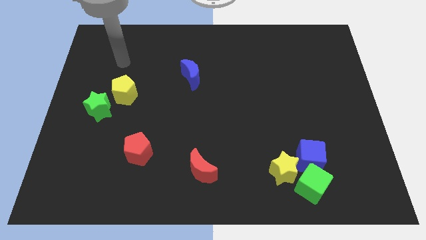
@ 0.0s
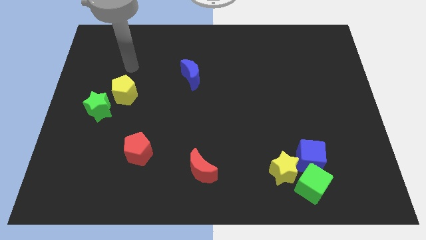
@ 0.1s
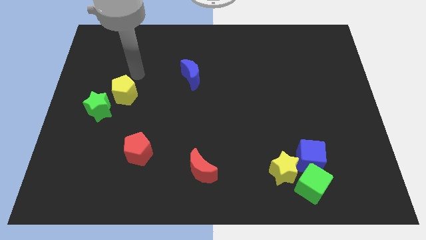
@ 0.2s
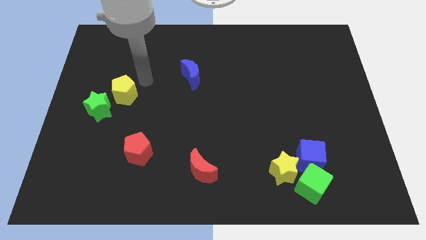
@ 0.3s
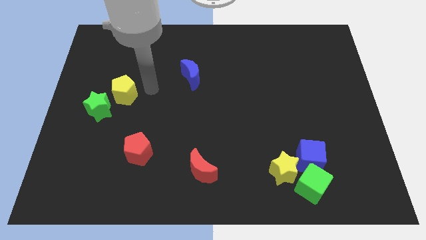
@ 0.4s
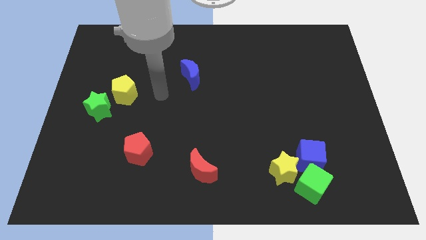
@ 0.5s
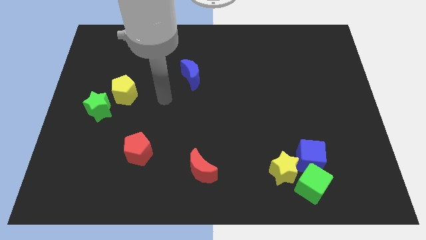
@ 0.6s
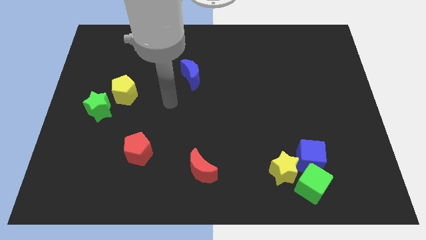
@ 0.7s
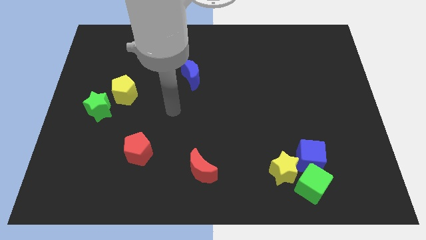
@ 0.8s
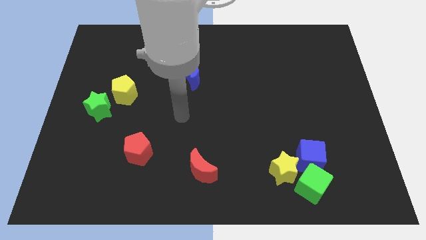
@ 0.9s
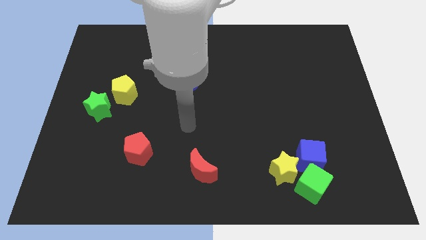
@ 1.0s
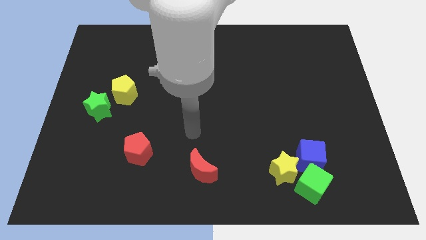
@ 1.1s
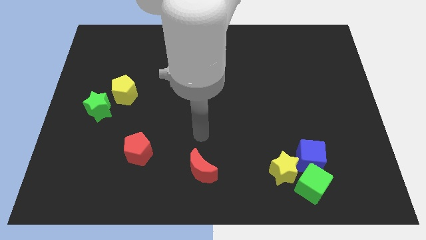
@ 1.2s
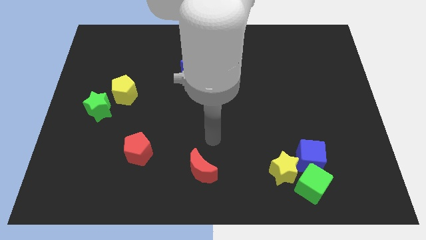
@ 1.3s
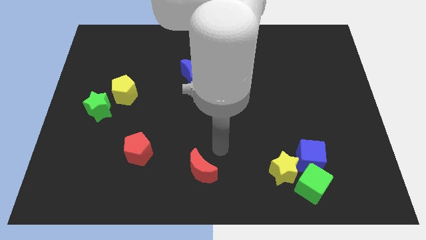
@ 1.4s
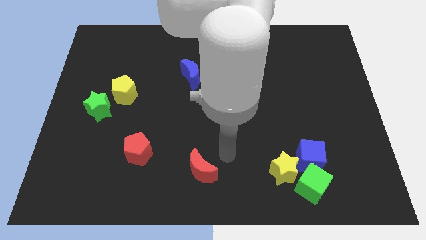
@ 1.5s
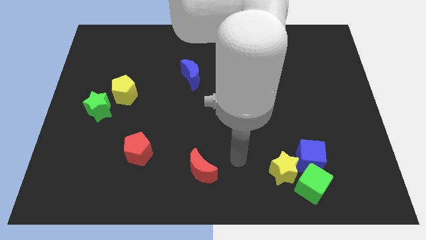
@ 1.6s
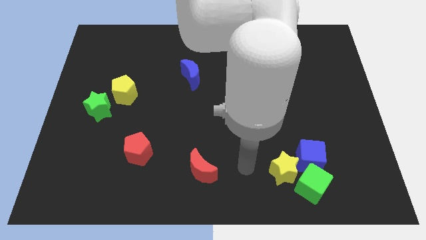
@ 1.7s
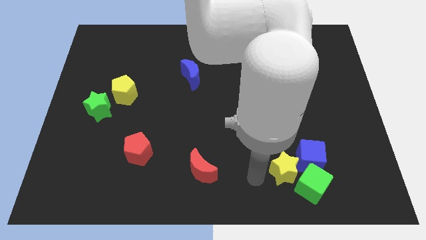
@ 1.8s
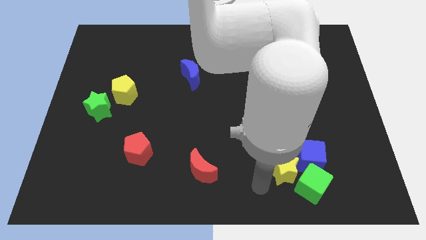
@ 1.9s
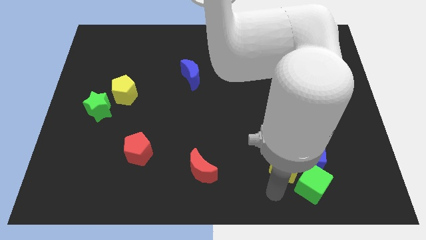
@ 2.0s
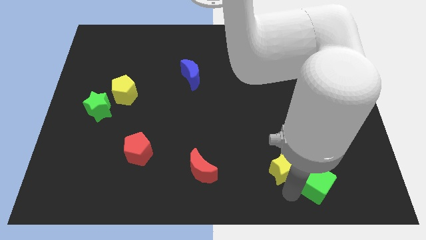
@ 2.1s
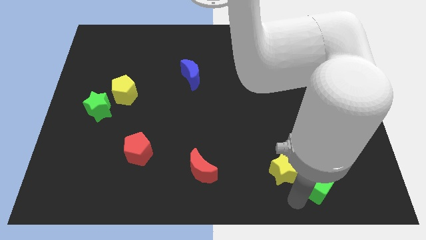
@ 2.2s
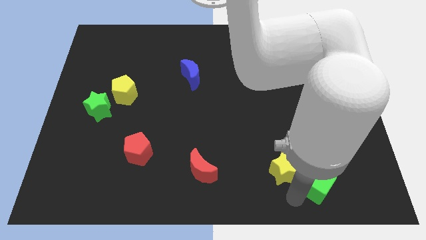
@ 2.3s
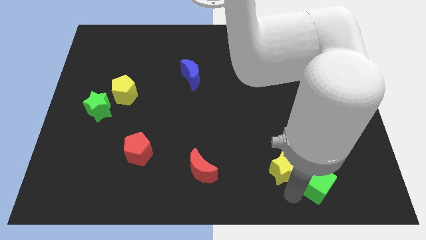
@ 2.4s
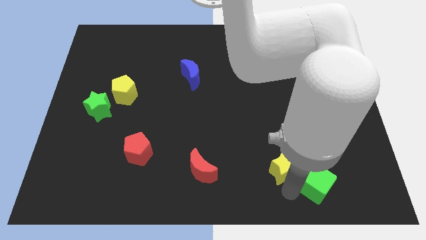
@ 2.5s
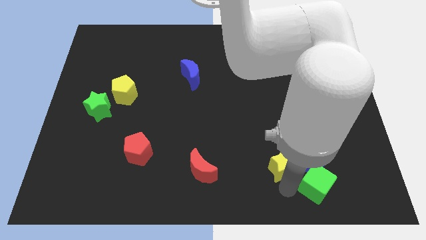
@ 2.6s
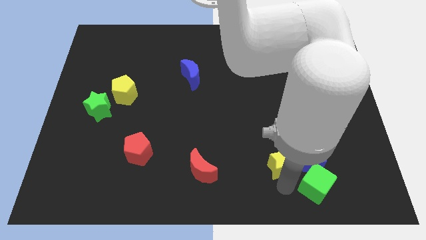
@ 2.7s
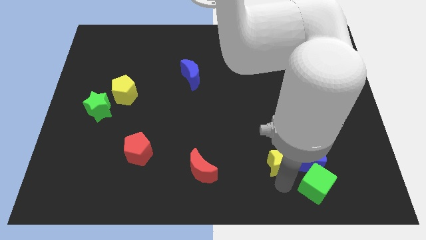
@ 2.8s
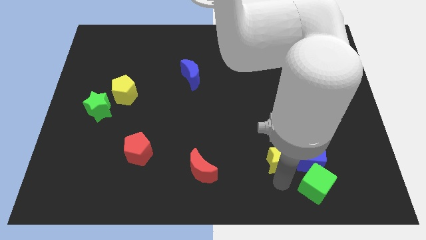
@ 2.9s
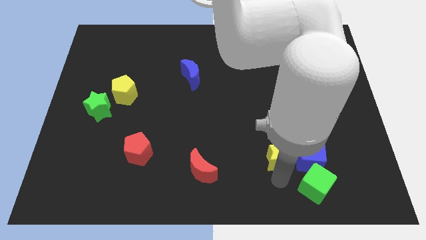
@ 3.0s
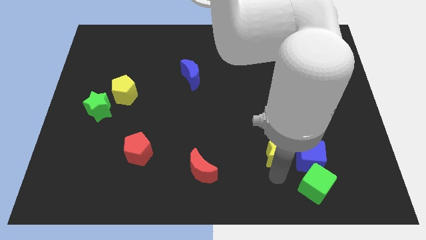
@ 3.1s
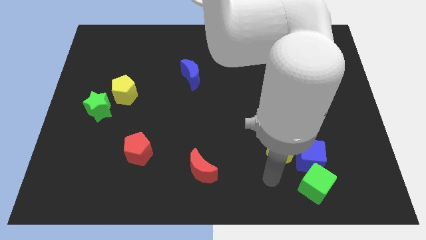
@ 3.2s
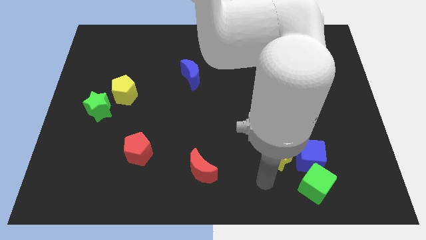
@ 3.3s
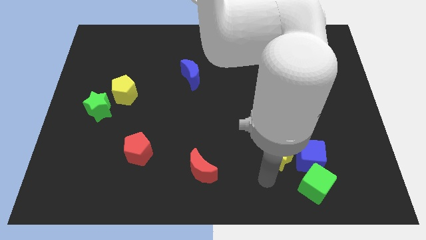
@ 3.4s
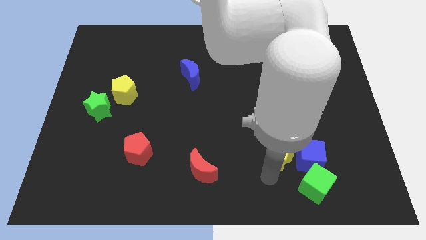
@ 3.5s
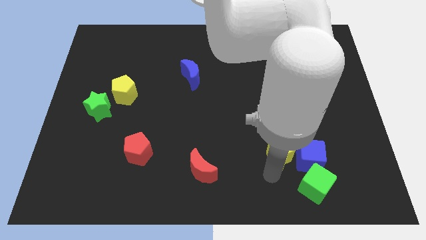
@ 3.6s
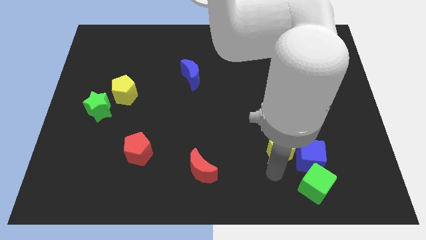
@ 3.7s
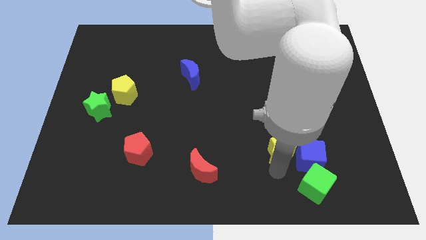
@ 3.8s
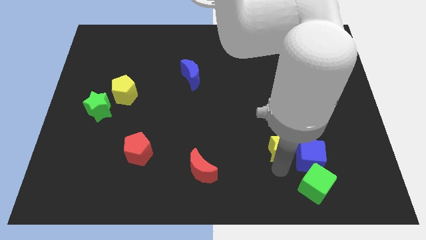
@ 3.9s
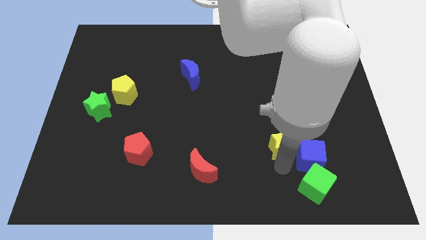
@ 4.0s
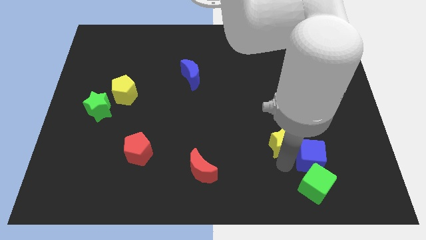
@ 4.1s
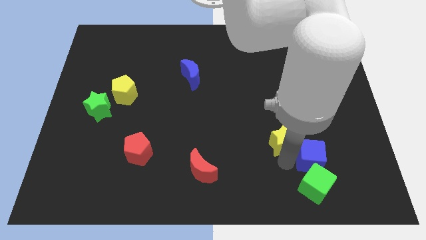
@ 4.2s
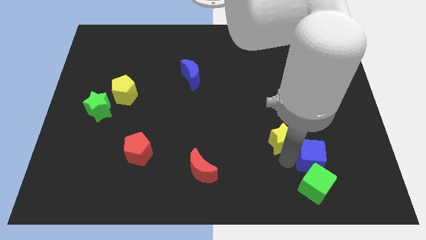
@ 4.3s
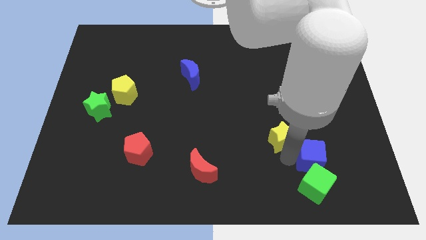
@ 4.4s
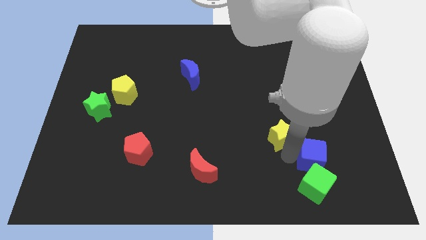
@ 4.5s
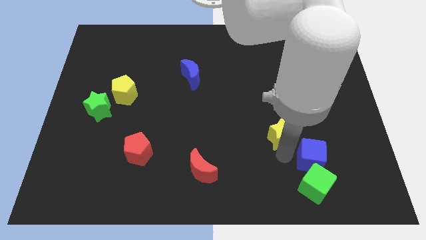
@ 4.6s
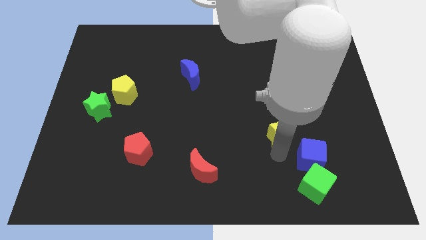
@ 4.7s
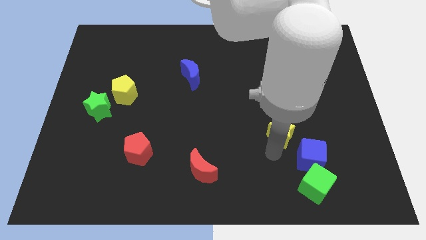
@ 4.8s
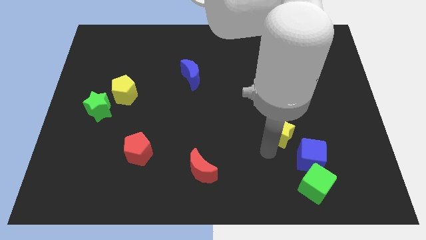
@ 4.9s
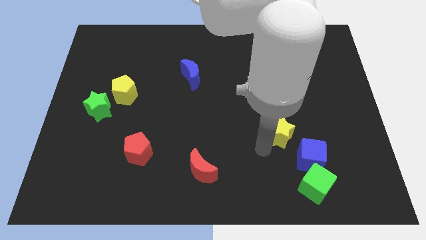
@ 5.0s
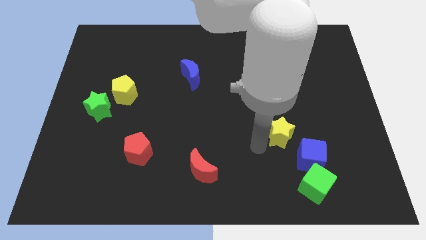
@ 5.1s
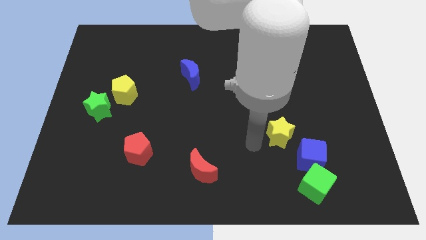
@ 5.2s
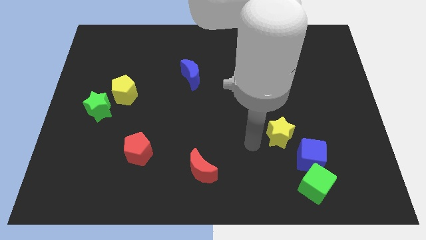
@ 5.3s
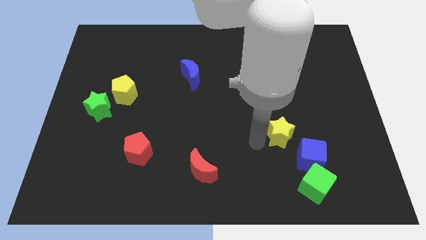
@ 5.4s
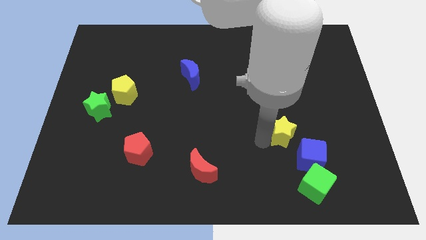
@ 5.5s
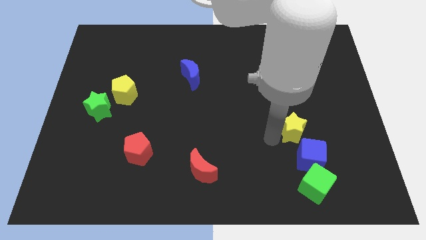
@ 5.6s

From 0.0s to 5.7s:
slightly move the yellow star diagonally up and to the right

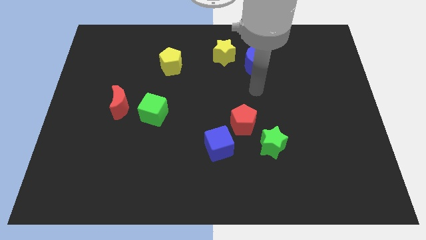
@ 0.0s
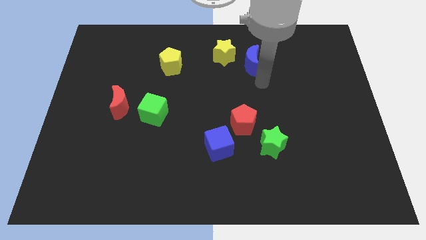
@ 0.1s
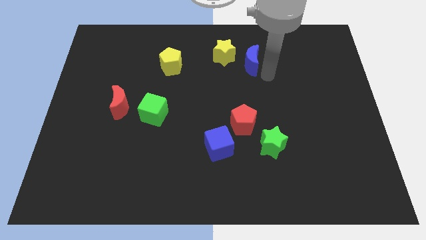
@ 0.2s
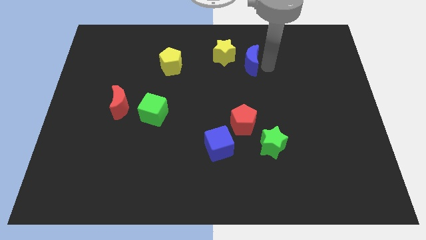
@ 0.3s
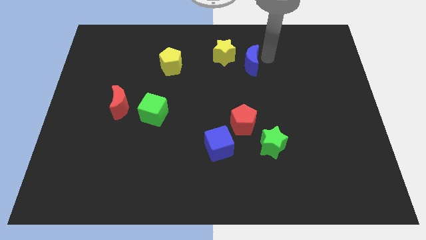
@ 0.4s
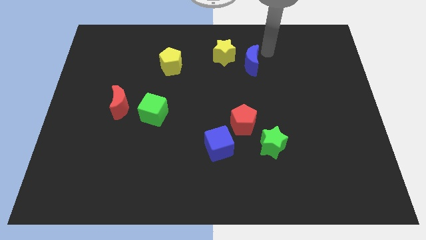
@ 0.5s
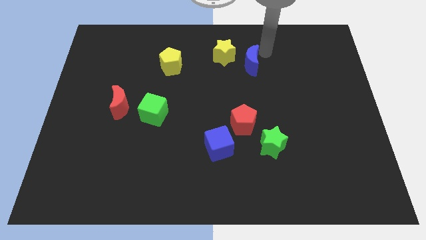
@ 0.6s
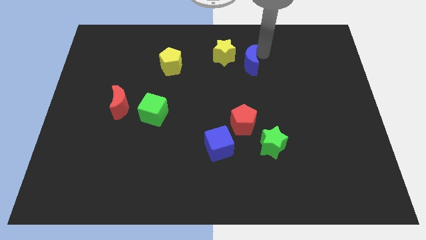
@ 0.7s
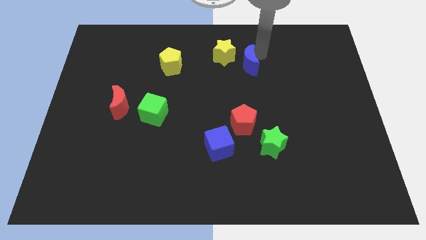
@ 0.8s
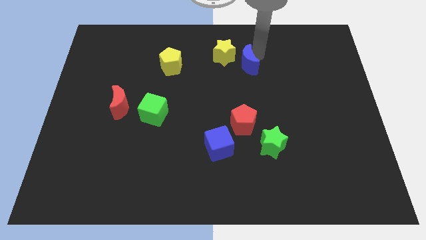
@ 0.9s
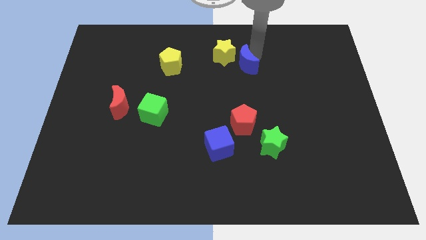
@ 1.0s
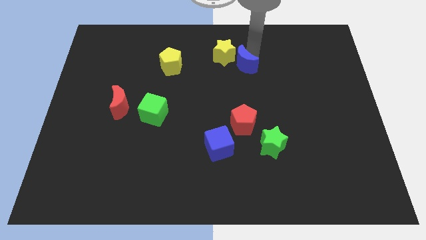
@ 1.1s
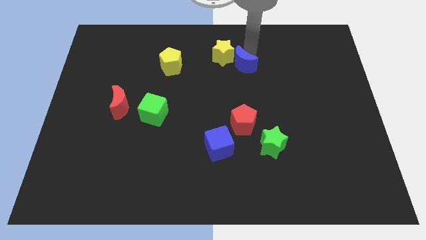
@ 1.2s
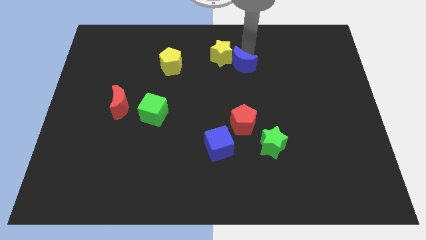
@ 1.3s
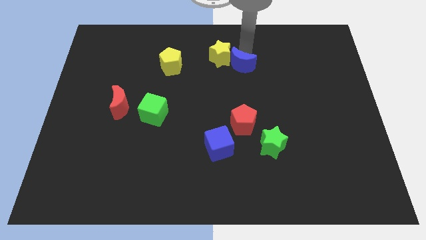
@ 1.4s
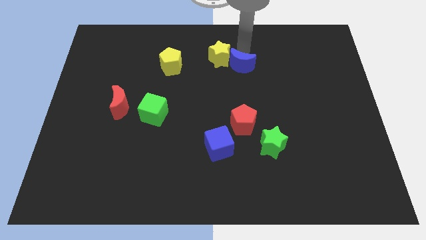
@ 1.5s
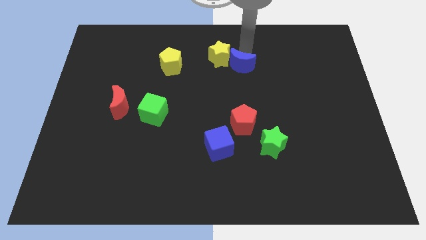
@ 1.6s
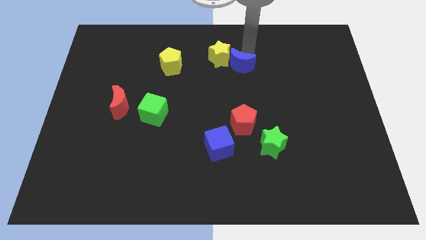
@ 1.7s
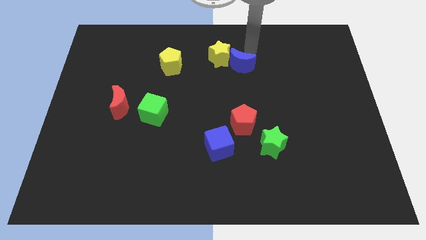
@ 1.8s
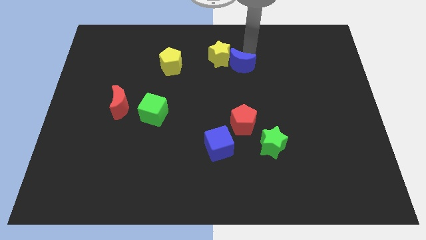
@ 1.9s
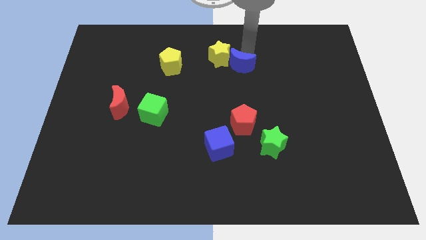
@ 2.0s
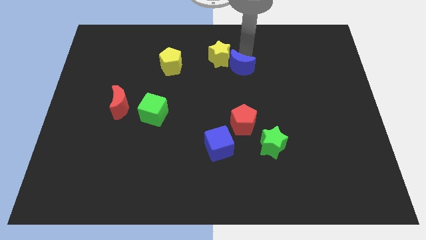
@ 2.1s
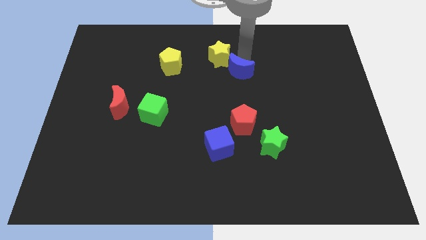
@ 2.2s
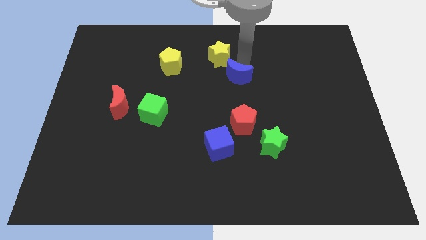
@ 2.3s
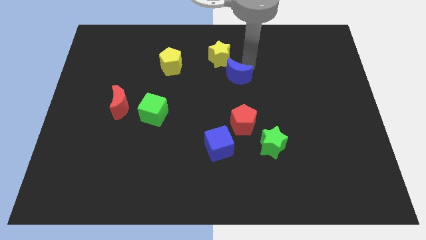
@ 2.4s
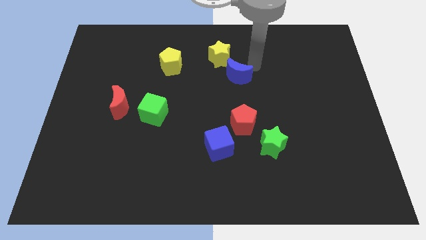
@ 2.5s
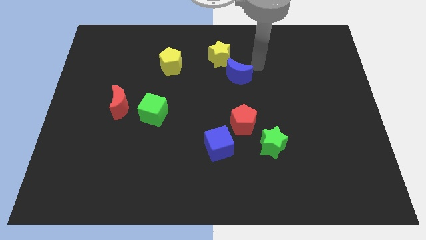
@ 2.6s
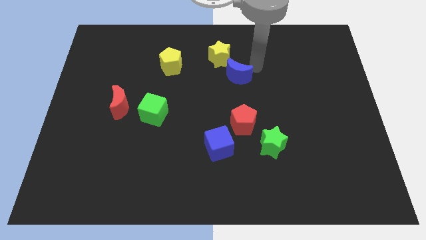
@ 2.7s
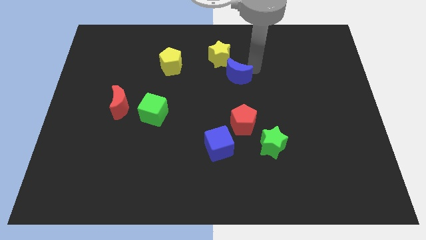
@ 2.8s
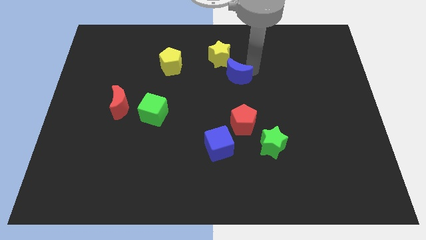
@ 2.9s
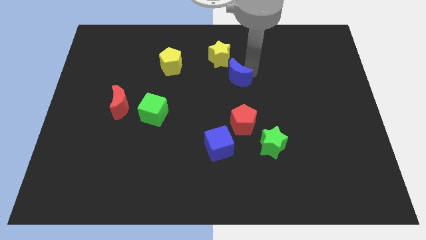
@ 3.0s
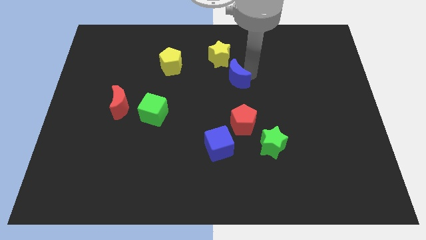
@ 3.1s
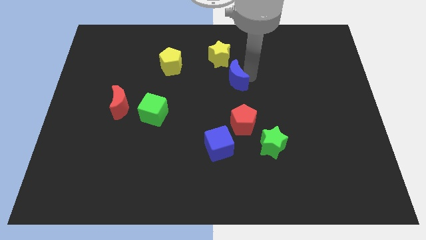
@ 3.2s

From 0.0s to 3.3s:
push the blue moon a little bit downwards and left
